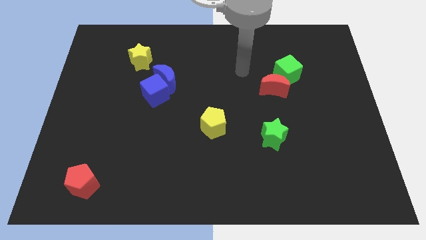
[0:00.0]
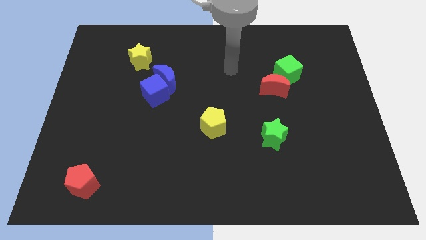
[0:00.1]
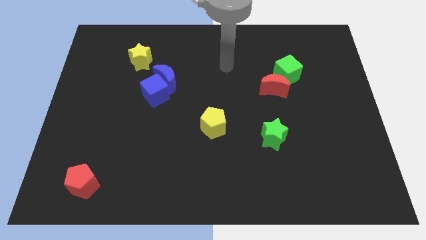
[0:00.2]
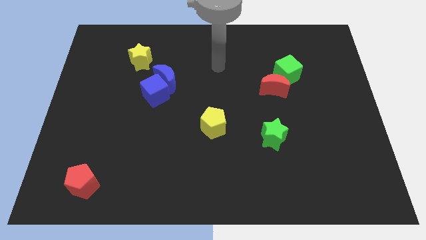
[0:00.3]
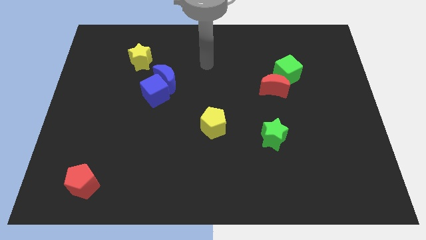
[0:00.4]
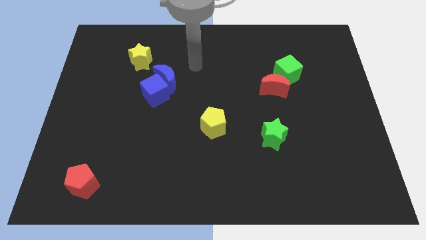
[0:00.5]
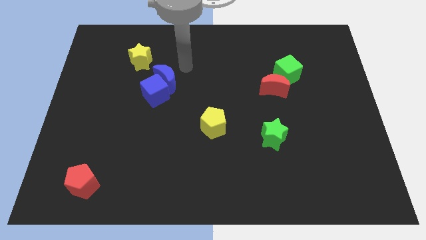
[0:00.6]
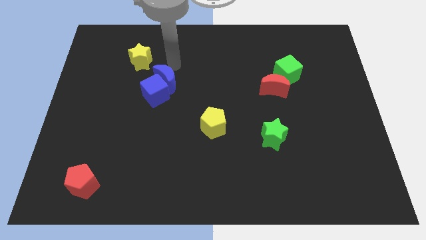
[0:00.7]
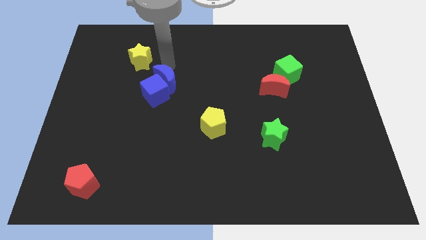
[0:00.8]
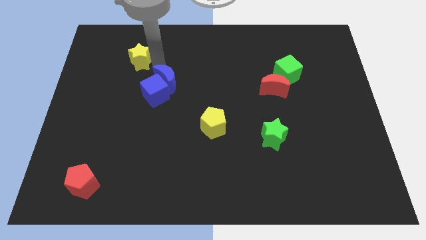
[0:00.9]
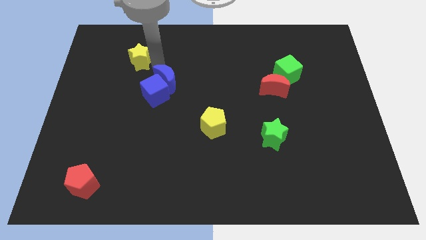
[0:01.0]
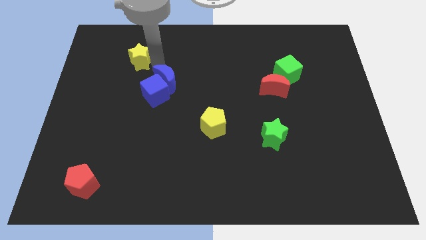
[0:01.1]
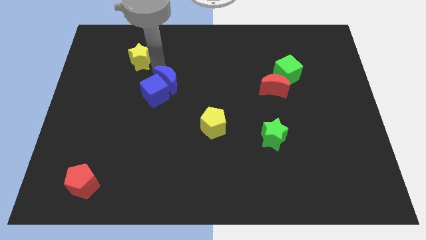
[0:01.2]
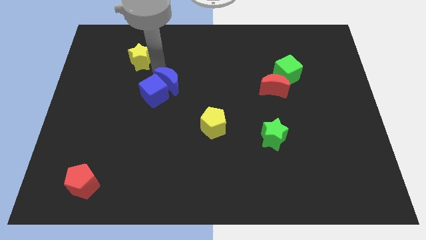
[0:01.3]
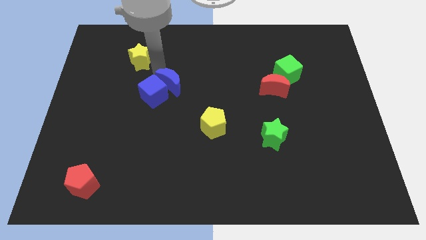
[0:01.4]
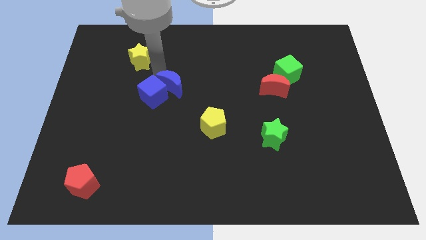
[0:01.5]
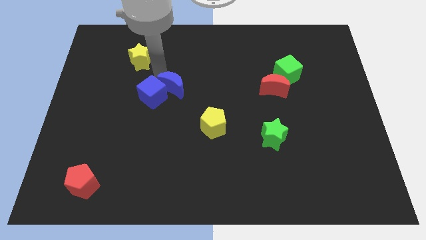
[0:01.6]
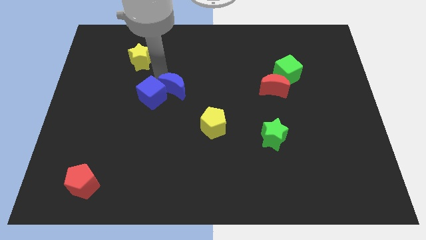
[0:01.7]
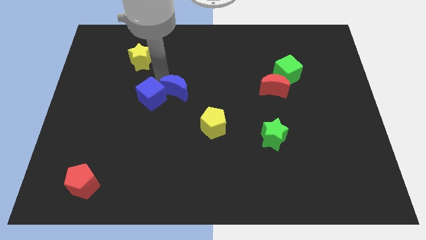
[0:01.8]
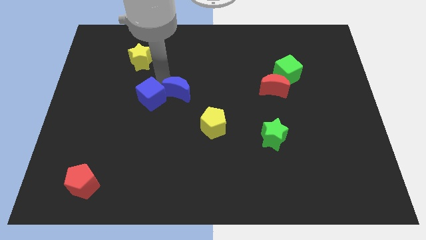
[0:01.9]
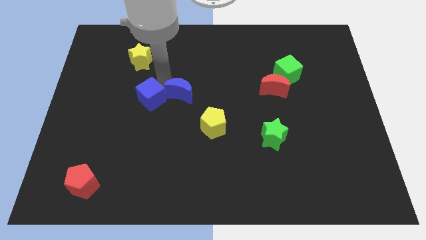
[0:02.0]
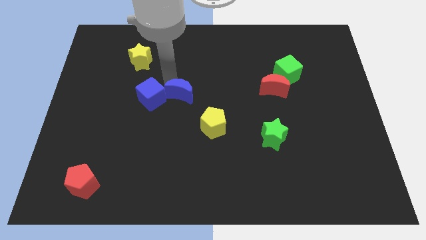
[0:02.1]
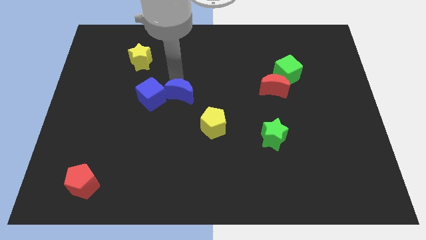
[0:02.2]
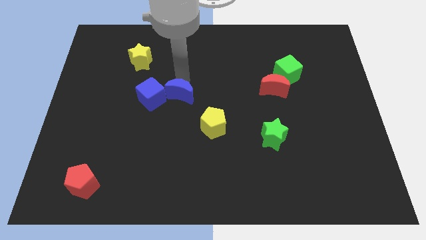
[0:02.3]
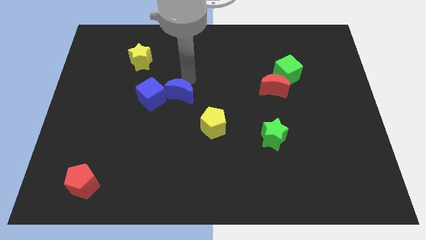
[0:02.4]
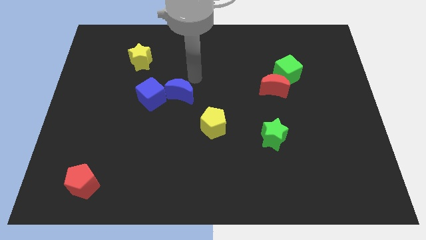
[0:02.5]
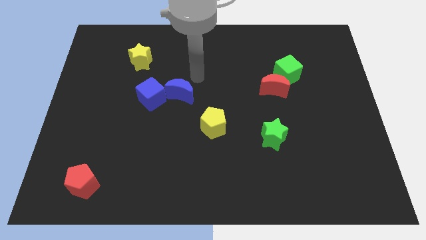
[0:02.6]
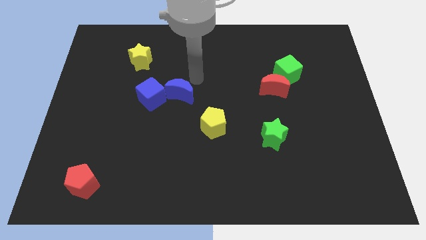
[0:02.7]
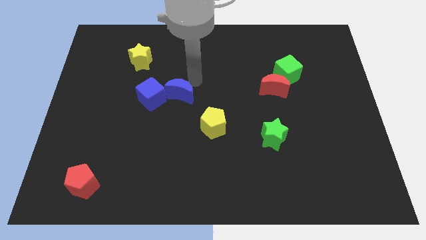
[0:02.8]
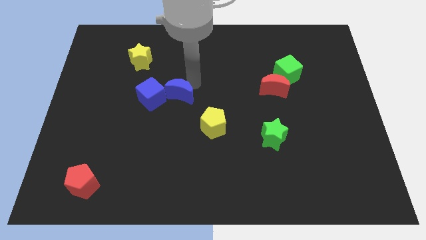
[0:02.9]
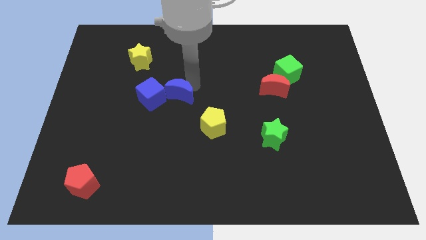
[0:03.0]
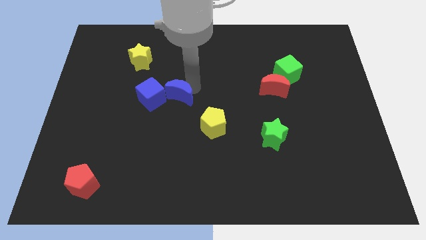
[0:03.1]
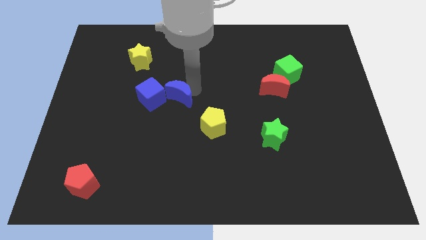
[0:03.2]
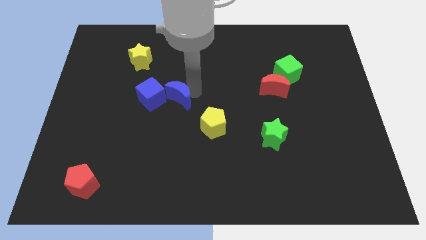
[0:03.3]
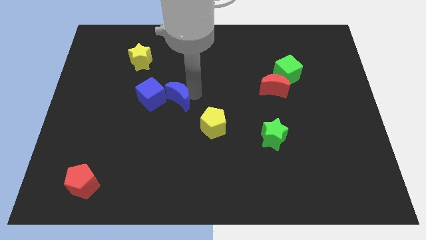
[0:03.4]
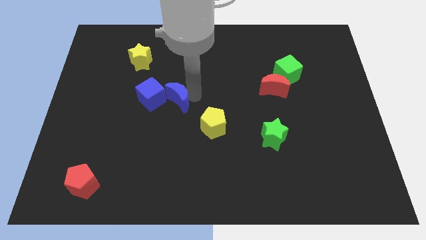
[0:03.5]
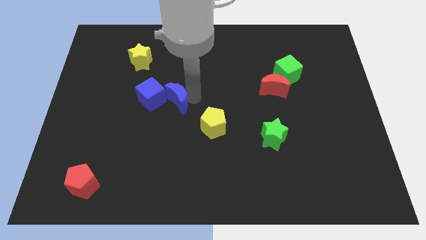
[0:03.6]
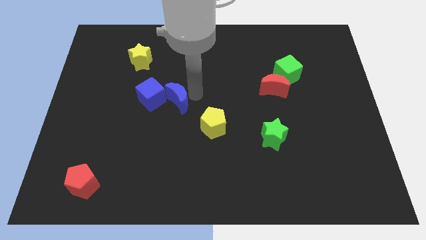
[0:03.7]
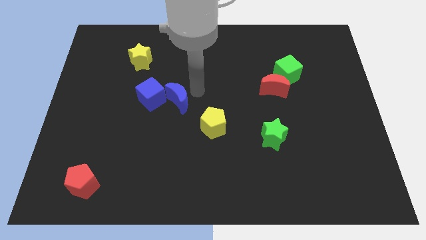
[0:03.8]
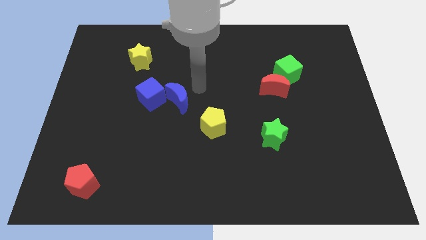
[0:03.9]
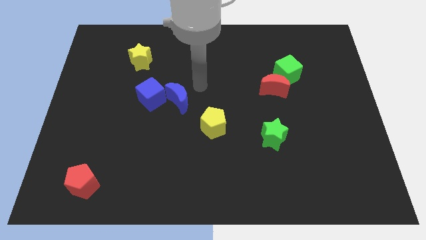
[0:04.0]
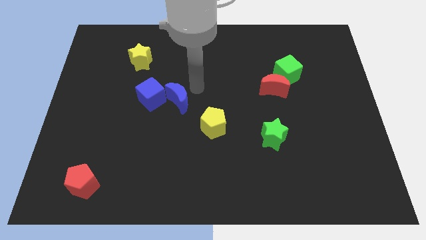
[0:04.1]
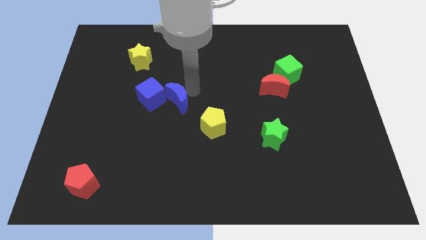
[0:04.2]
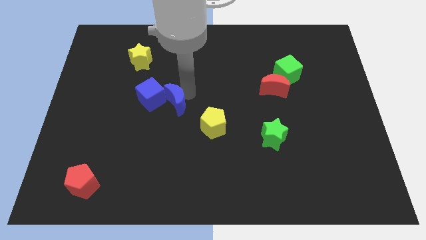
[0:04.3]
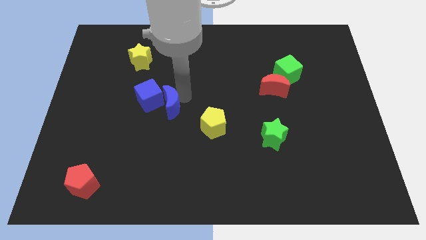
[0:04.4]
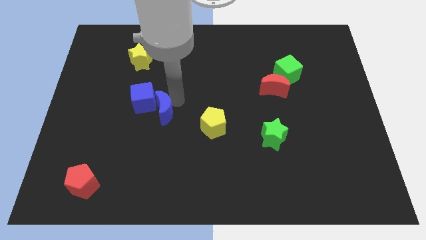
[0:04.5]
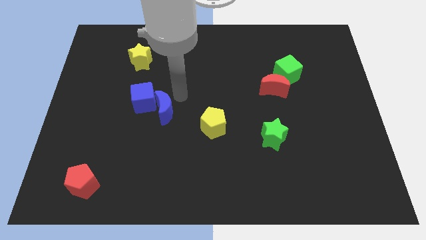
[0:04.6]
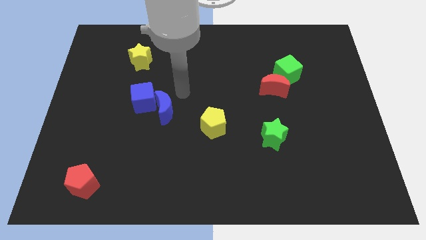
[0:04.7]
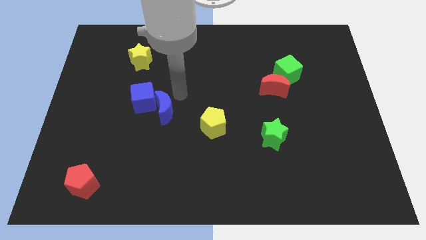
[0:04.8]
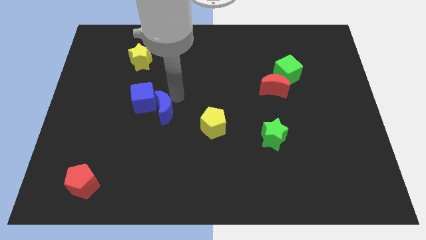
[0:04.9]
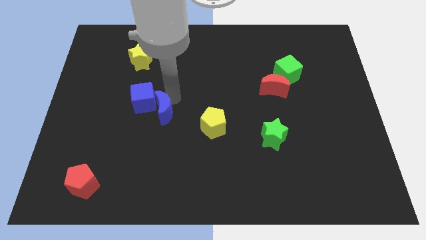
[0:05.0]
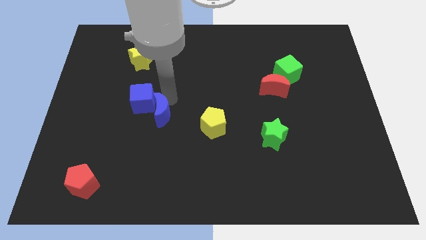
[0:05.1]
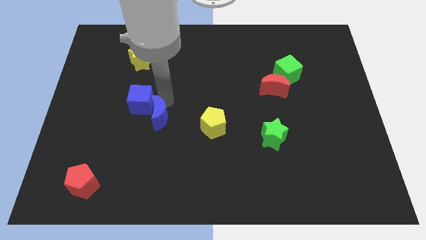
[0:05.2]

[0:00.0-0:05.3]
move the blue moon to the bottom side of the blue cube

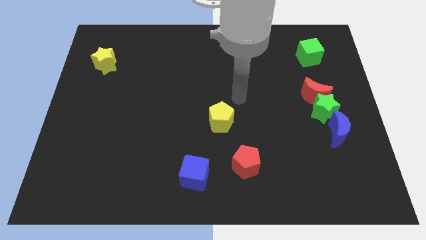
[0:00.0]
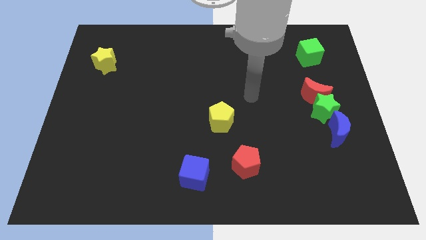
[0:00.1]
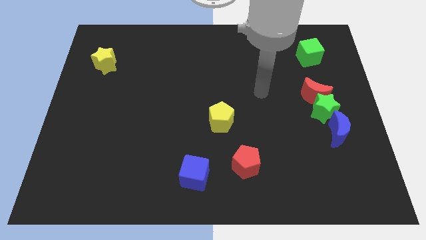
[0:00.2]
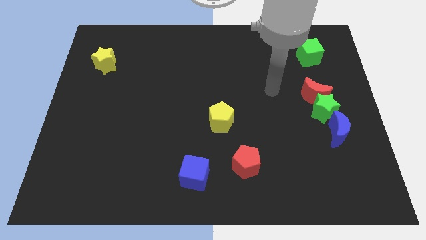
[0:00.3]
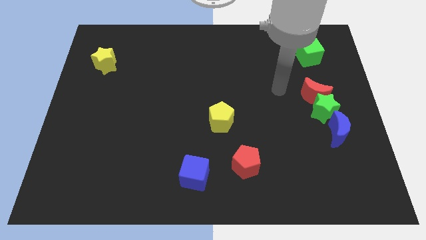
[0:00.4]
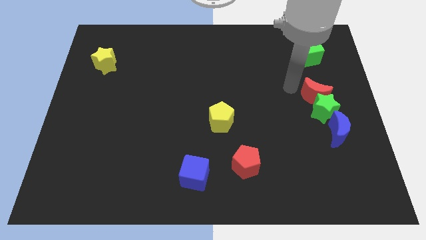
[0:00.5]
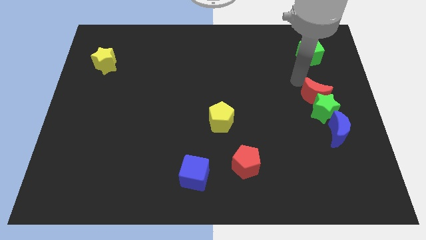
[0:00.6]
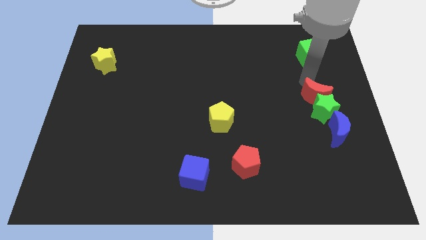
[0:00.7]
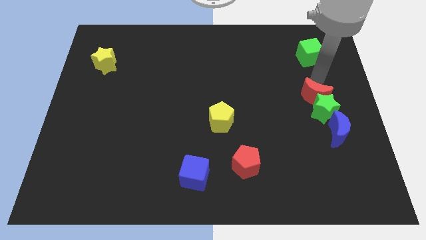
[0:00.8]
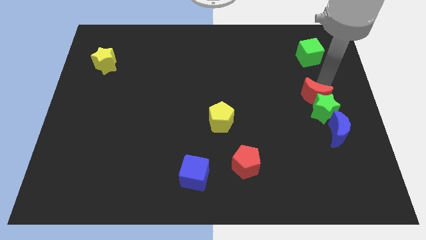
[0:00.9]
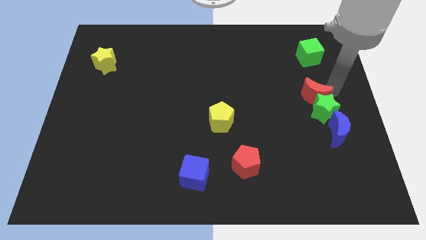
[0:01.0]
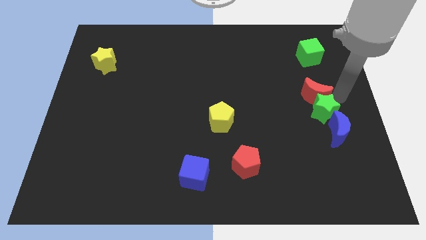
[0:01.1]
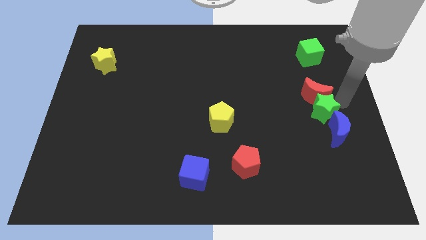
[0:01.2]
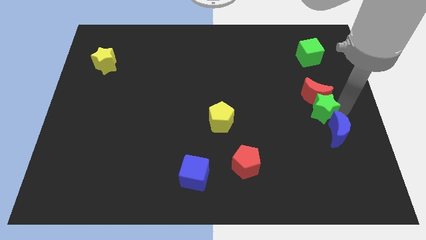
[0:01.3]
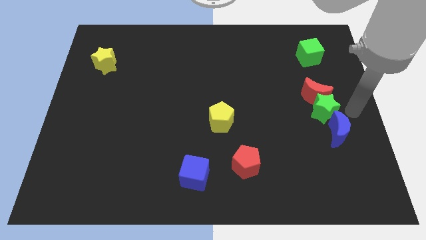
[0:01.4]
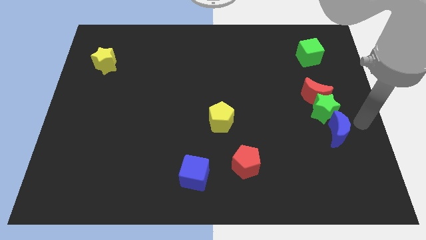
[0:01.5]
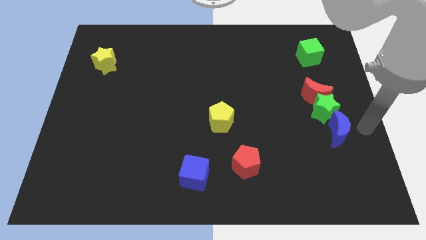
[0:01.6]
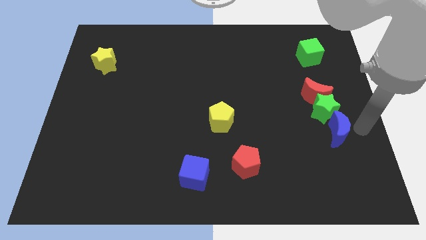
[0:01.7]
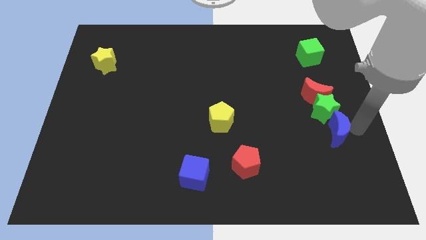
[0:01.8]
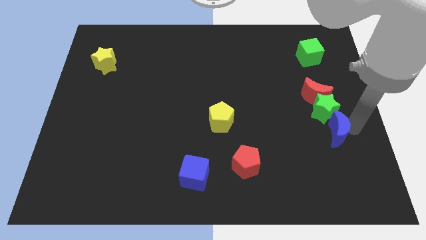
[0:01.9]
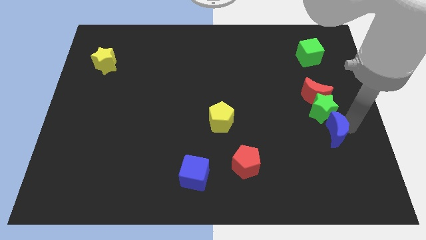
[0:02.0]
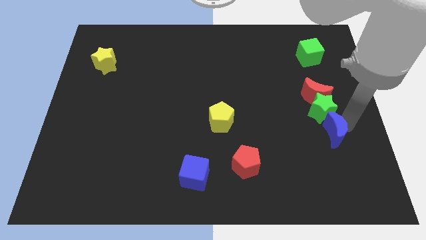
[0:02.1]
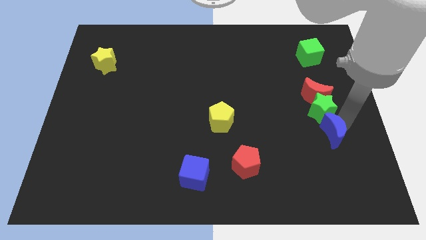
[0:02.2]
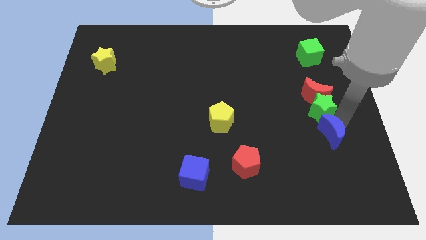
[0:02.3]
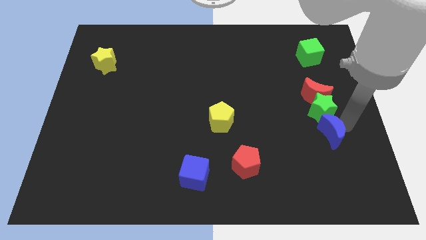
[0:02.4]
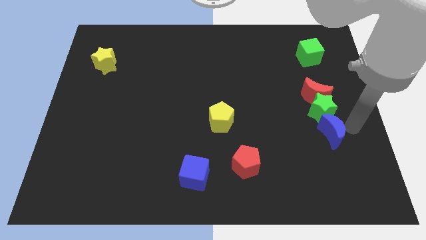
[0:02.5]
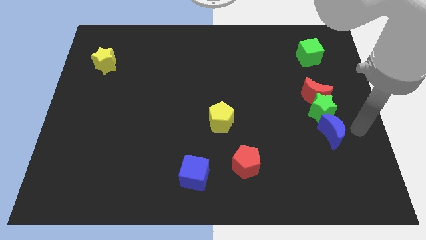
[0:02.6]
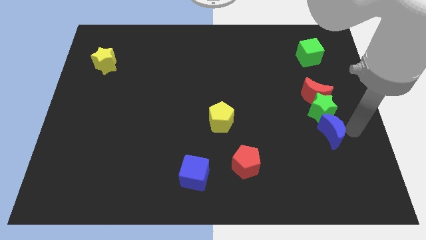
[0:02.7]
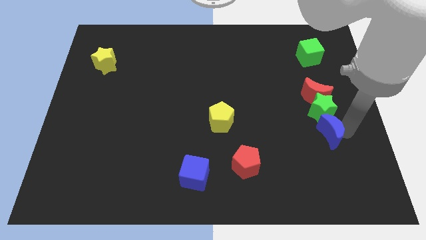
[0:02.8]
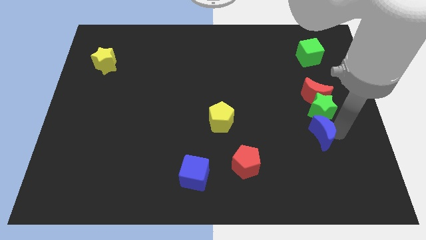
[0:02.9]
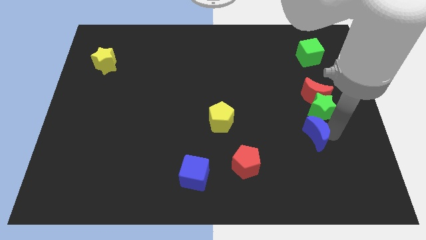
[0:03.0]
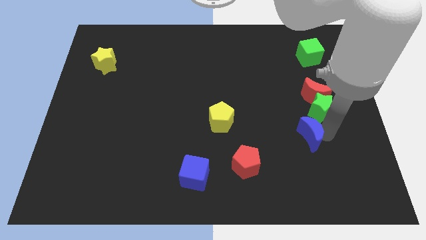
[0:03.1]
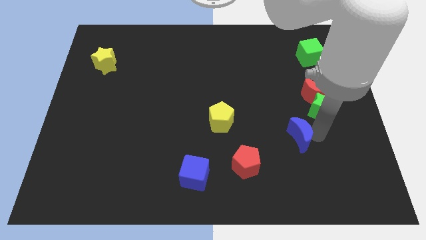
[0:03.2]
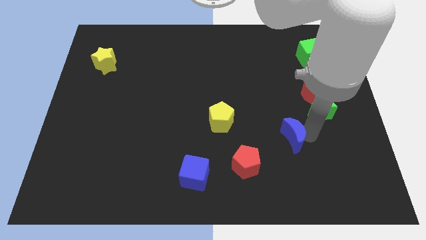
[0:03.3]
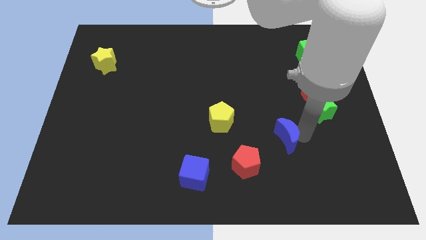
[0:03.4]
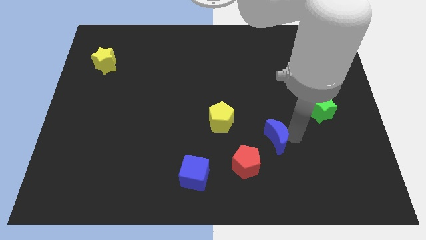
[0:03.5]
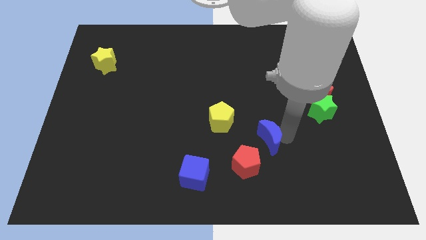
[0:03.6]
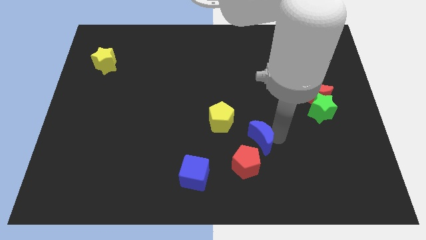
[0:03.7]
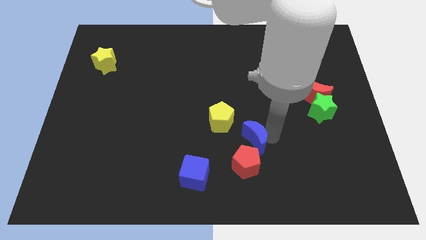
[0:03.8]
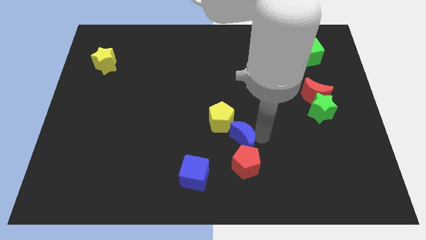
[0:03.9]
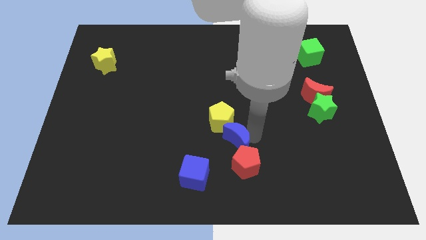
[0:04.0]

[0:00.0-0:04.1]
put the blue moon below the yellow pentagon
